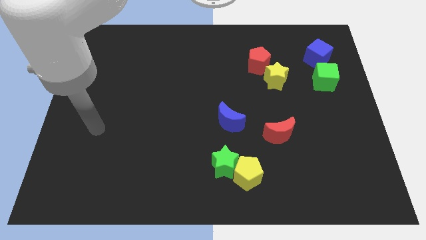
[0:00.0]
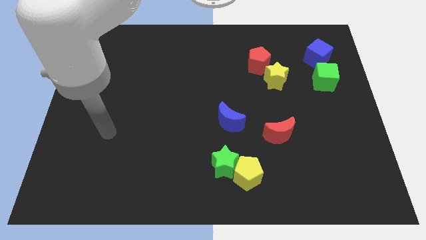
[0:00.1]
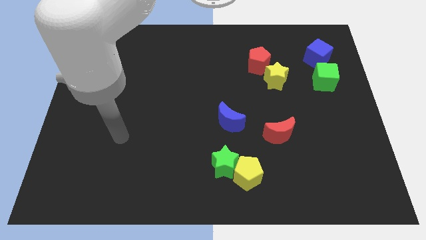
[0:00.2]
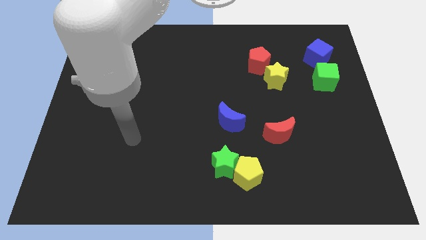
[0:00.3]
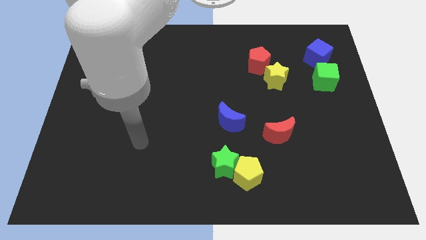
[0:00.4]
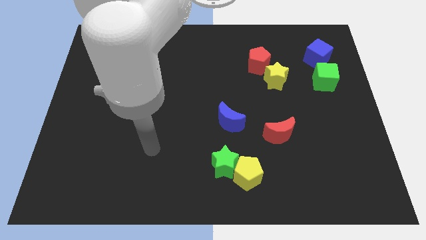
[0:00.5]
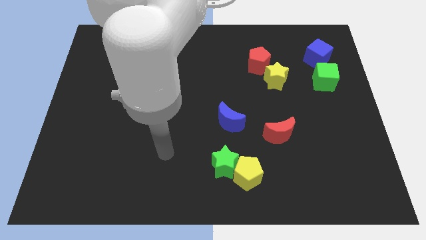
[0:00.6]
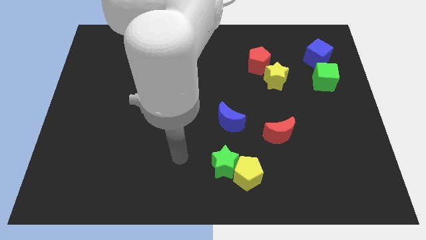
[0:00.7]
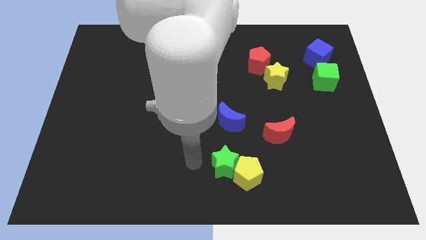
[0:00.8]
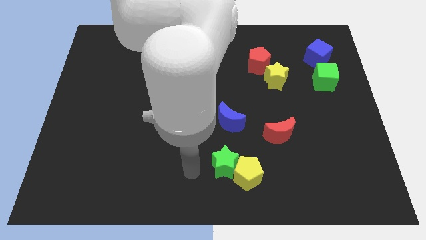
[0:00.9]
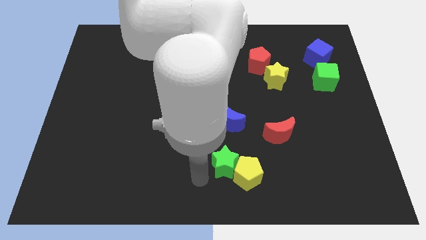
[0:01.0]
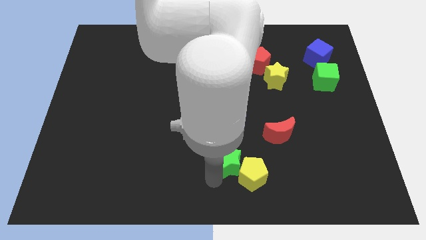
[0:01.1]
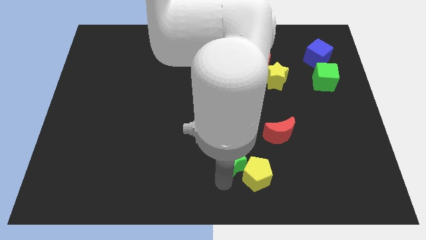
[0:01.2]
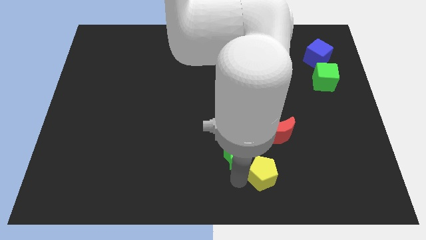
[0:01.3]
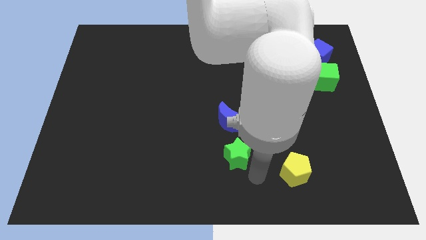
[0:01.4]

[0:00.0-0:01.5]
separate the green star from the yellow pentagon

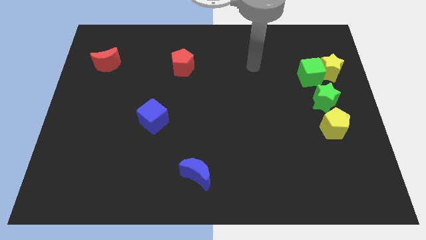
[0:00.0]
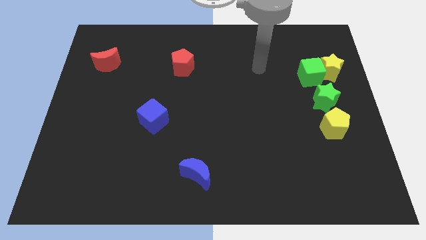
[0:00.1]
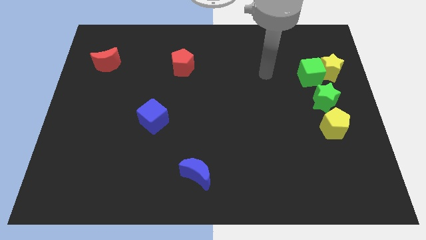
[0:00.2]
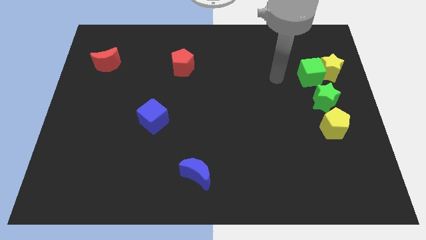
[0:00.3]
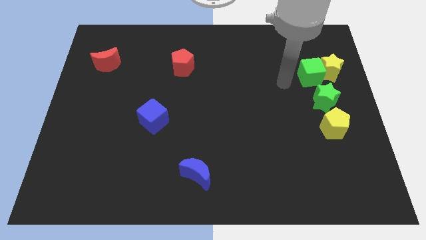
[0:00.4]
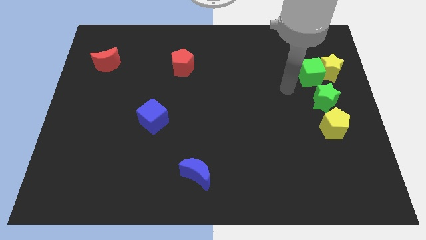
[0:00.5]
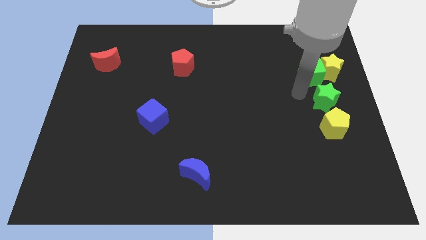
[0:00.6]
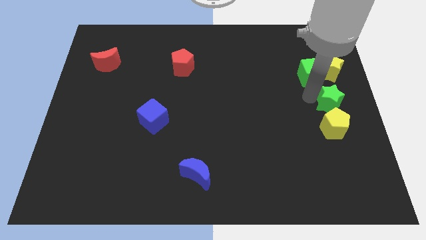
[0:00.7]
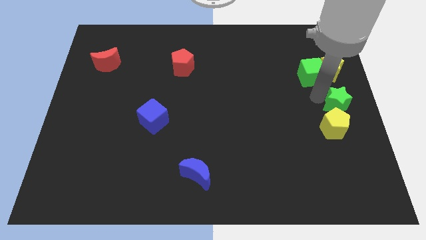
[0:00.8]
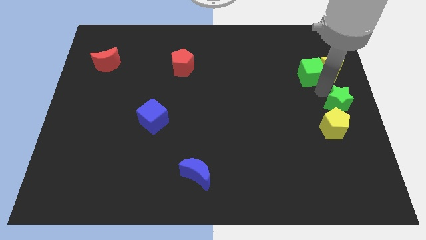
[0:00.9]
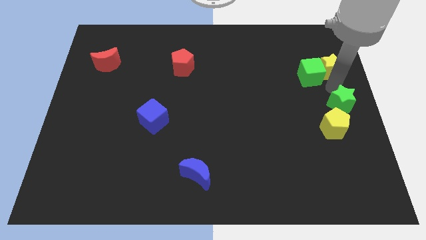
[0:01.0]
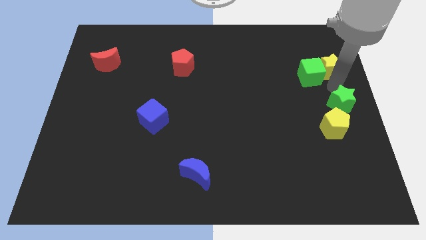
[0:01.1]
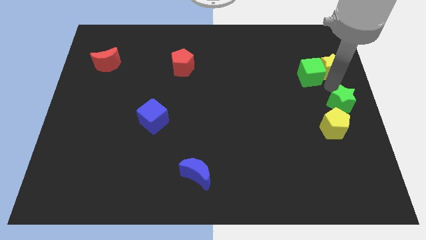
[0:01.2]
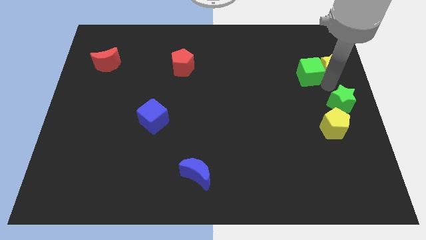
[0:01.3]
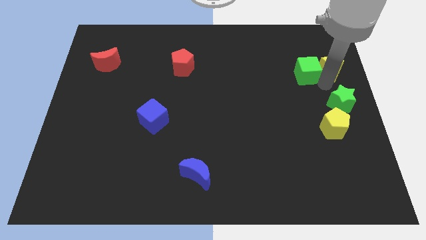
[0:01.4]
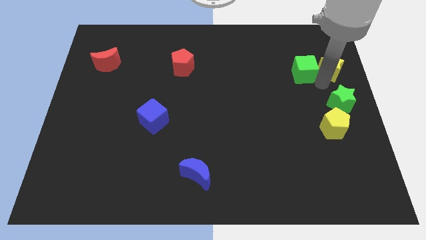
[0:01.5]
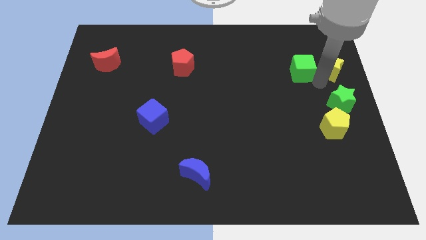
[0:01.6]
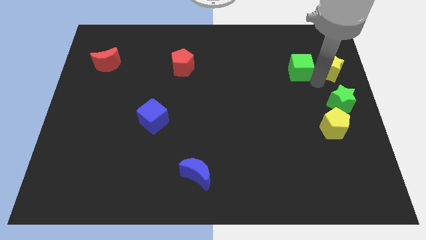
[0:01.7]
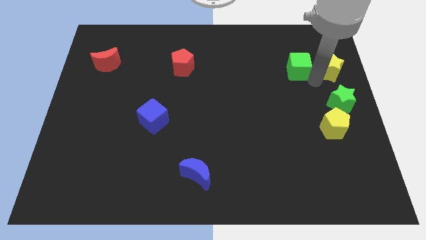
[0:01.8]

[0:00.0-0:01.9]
pull the green cube apart from the yellow star and green star

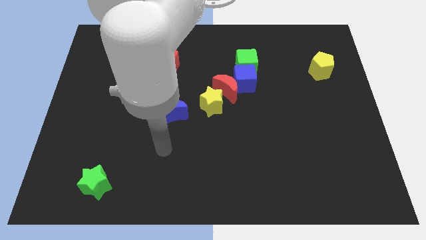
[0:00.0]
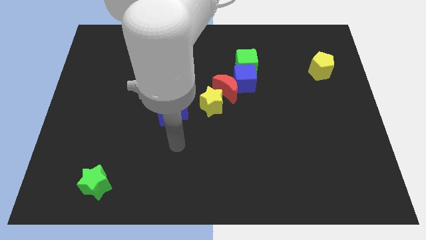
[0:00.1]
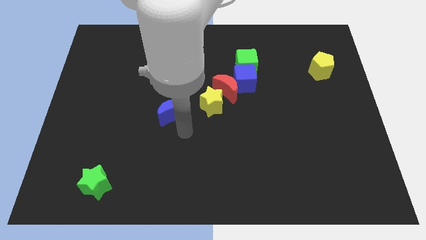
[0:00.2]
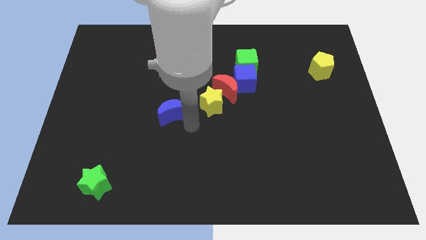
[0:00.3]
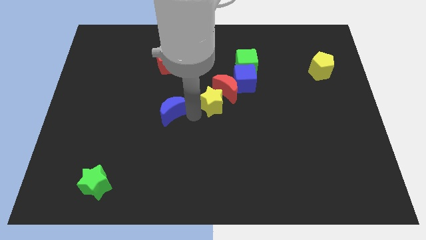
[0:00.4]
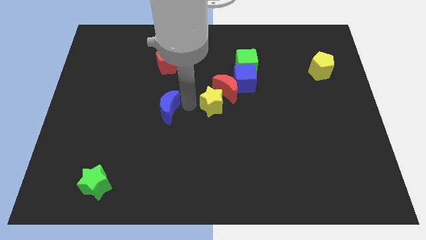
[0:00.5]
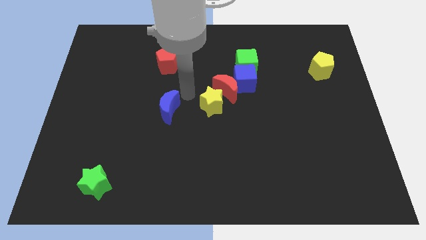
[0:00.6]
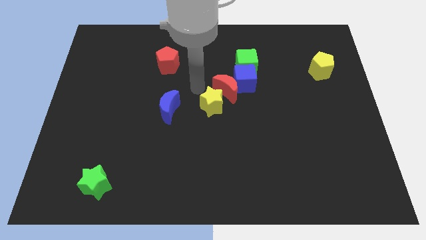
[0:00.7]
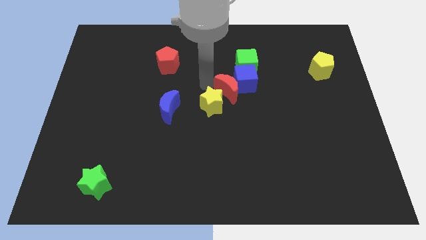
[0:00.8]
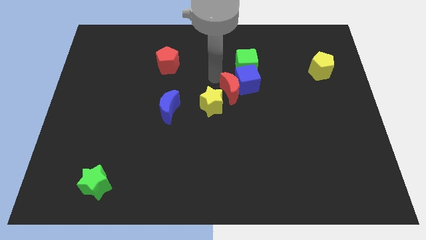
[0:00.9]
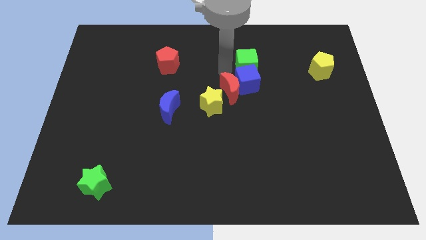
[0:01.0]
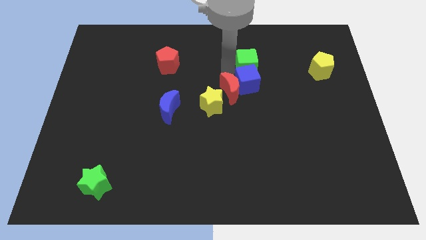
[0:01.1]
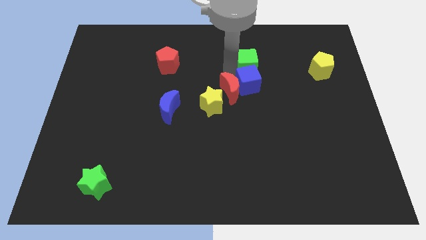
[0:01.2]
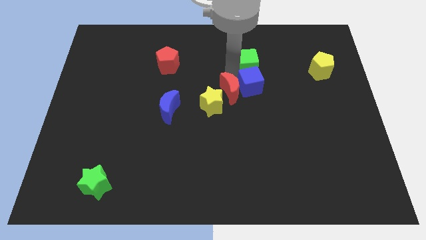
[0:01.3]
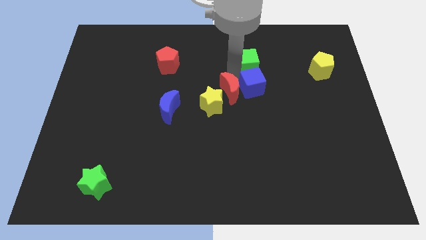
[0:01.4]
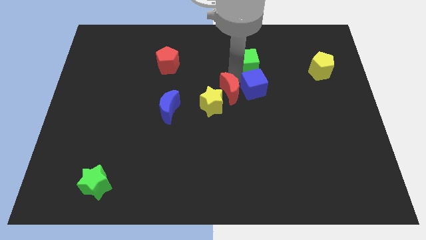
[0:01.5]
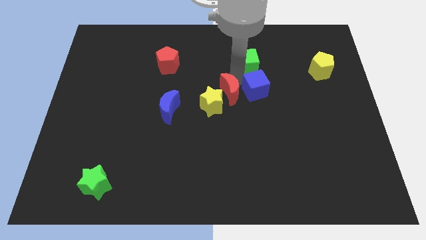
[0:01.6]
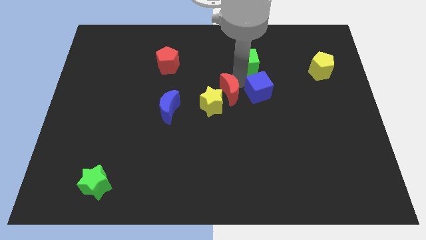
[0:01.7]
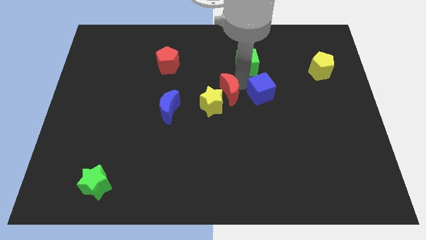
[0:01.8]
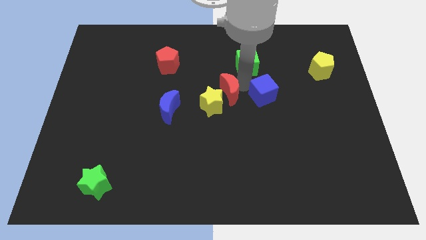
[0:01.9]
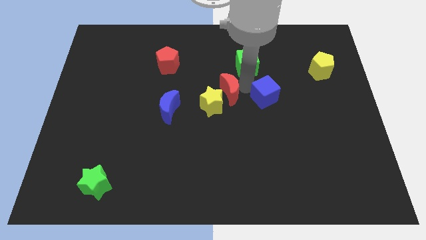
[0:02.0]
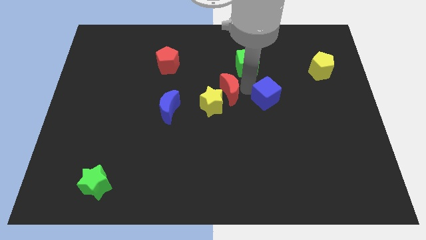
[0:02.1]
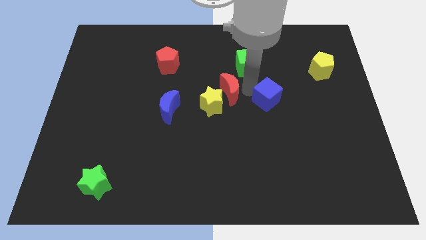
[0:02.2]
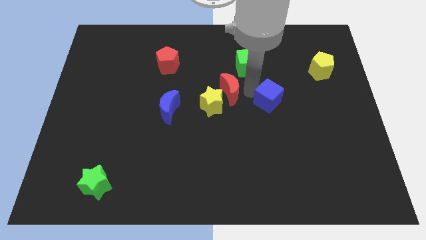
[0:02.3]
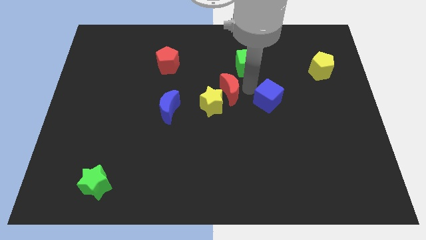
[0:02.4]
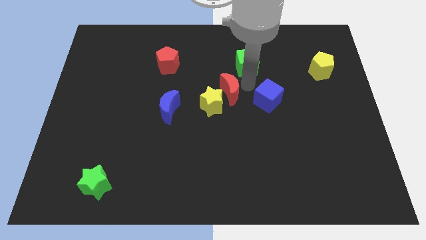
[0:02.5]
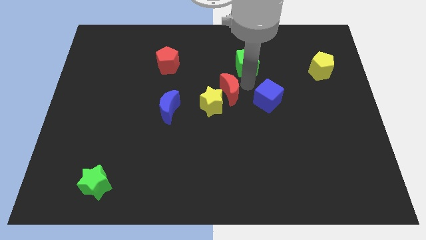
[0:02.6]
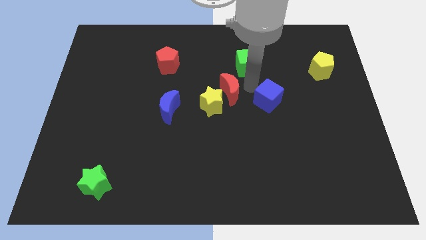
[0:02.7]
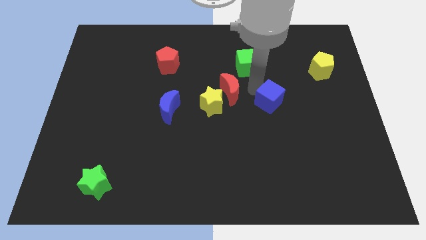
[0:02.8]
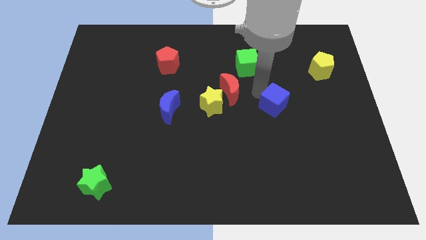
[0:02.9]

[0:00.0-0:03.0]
separate the blue cube from the red moon and green cube

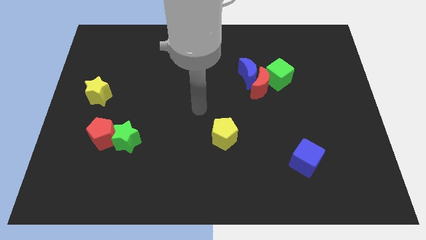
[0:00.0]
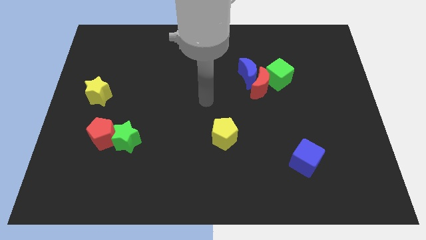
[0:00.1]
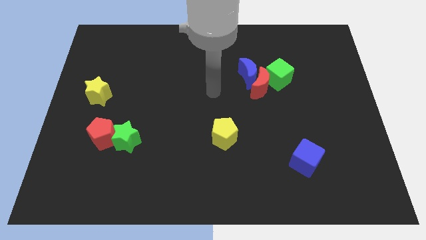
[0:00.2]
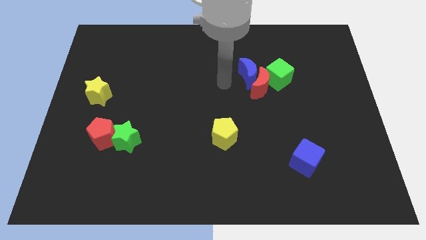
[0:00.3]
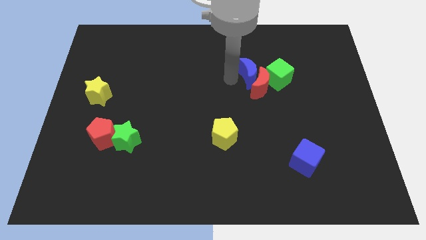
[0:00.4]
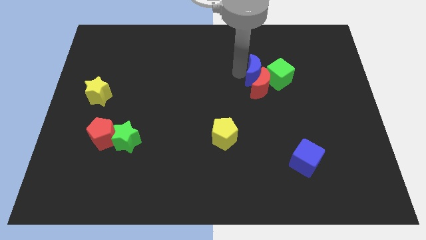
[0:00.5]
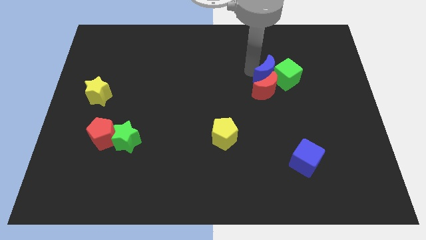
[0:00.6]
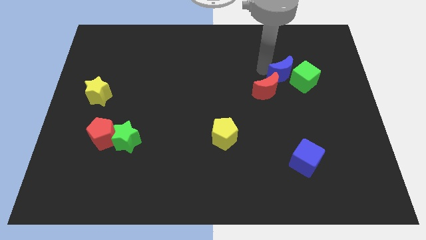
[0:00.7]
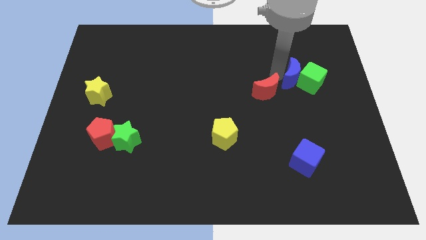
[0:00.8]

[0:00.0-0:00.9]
separate the red moon from the blue moon and green cube

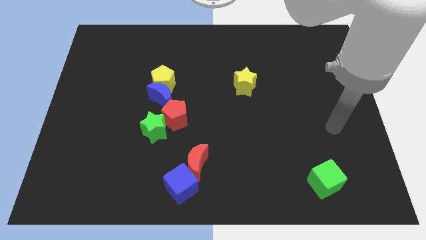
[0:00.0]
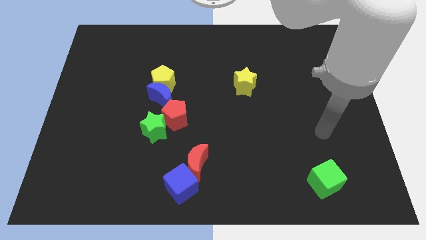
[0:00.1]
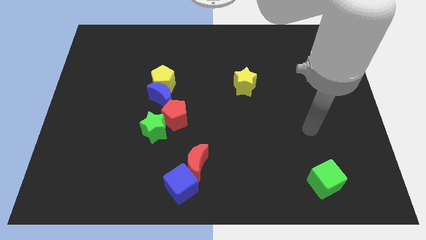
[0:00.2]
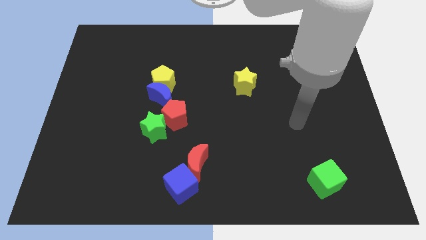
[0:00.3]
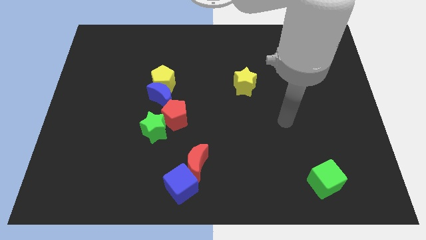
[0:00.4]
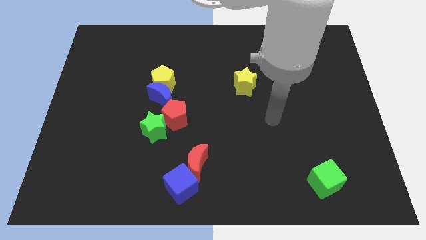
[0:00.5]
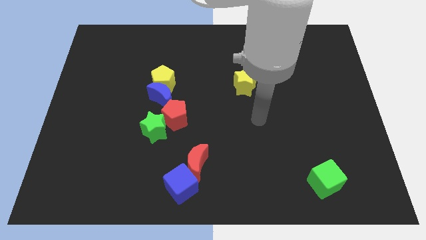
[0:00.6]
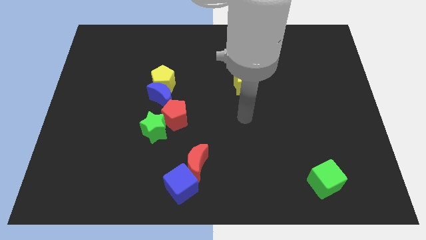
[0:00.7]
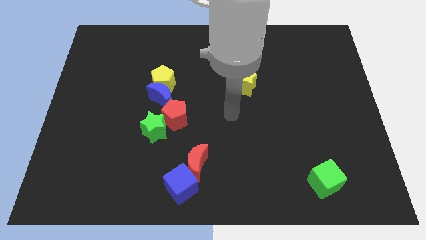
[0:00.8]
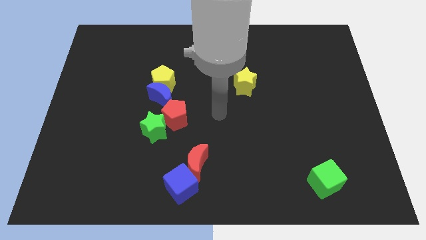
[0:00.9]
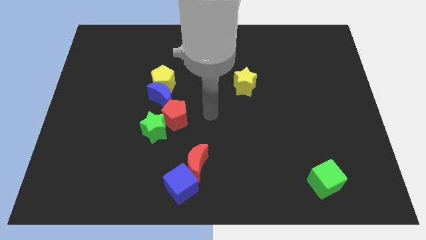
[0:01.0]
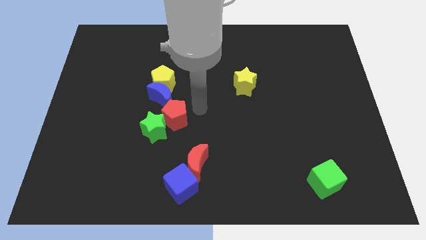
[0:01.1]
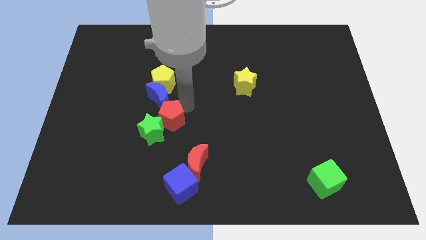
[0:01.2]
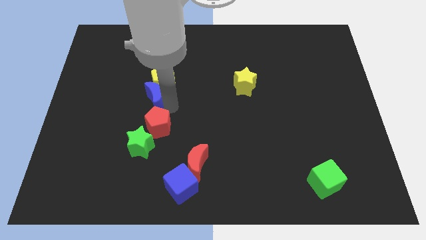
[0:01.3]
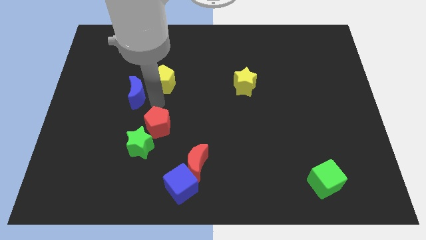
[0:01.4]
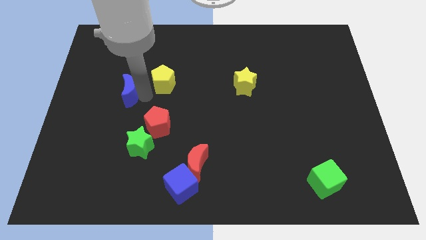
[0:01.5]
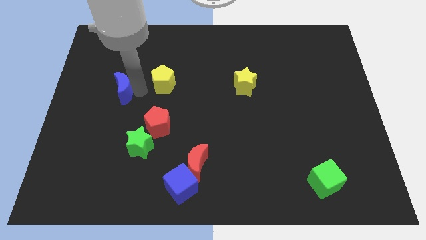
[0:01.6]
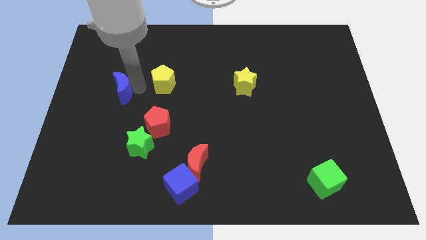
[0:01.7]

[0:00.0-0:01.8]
pull the yellow pentagon apart from the blue moon

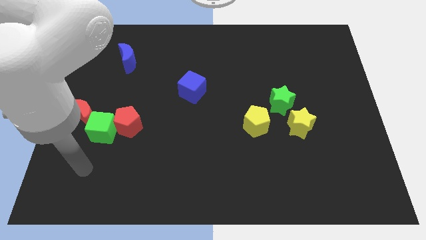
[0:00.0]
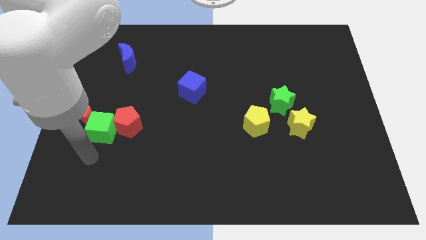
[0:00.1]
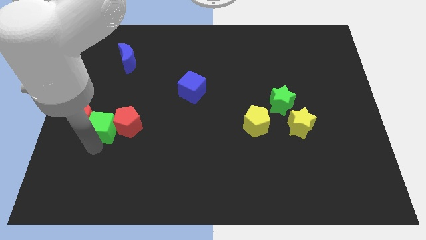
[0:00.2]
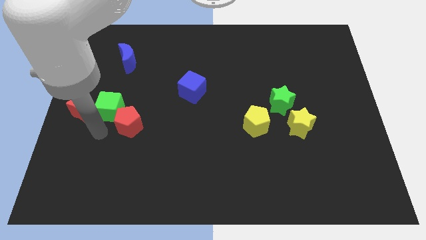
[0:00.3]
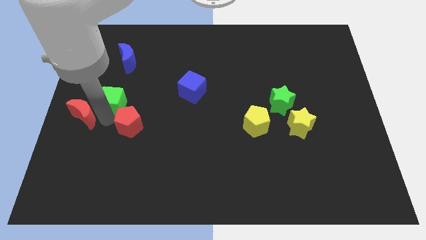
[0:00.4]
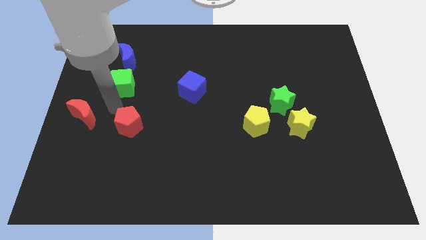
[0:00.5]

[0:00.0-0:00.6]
pull the red pentagon apart from the green cube
